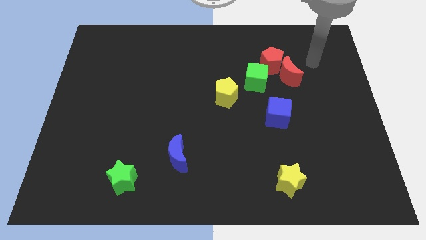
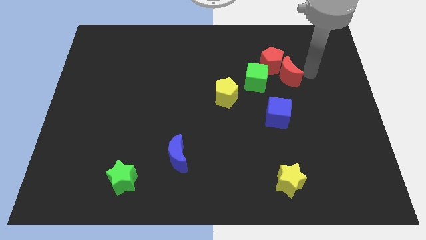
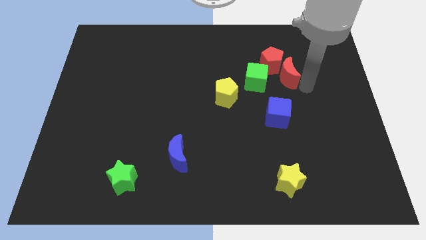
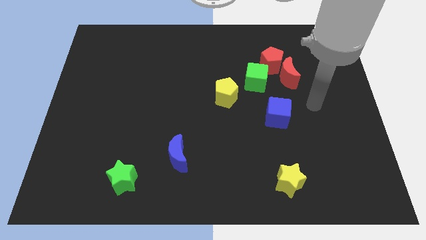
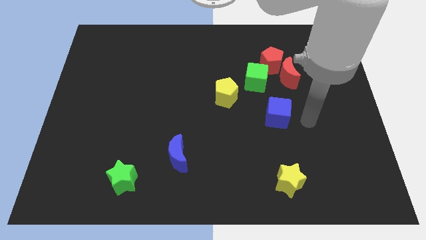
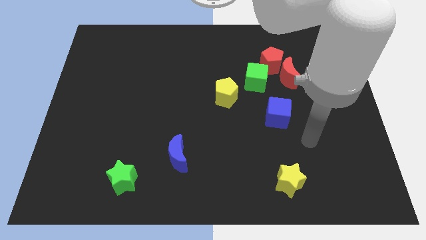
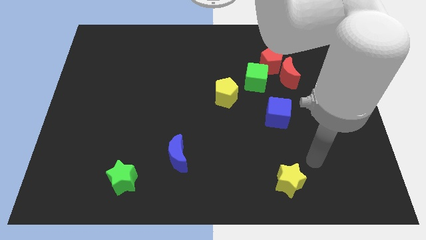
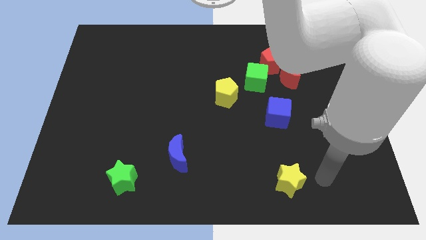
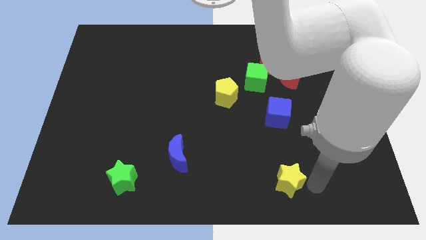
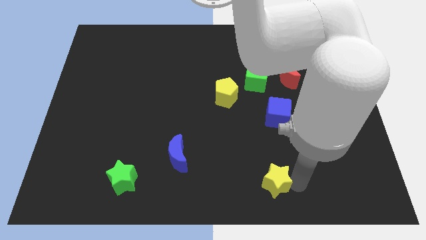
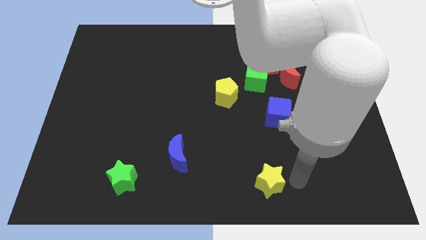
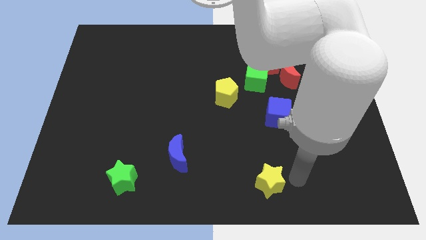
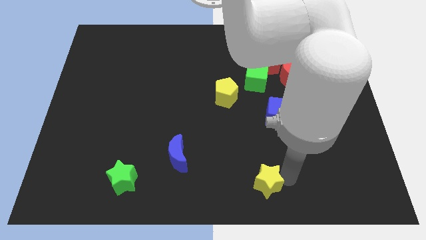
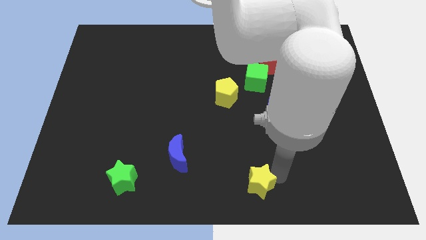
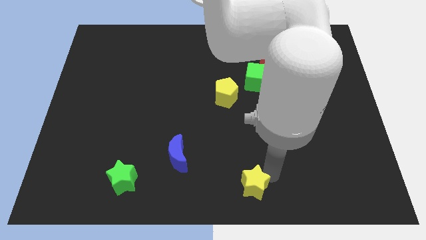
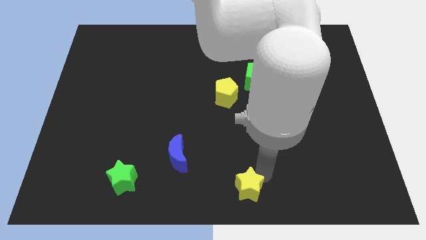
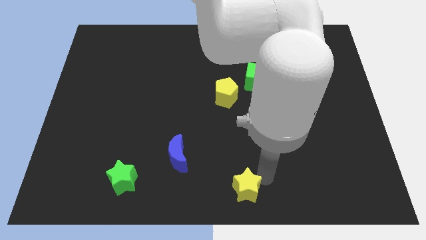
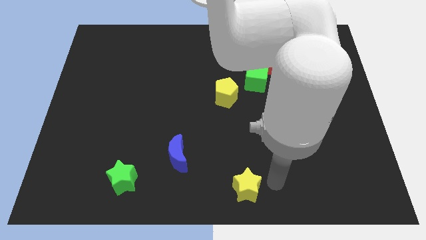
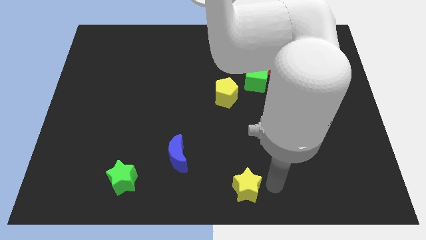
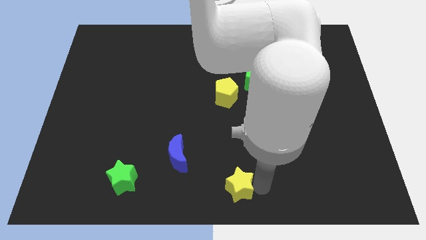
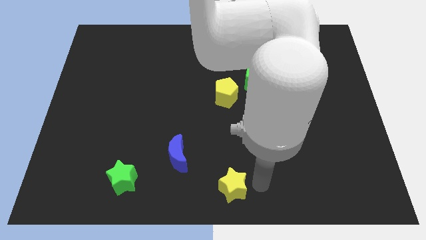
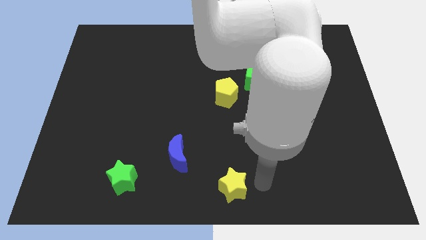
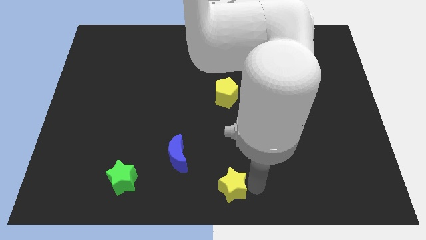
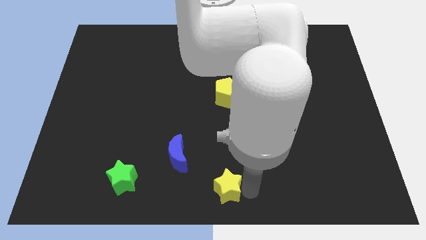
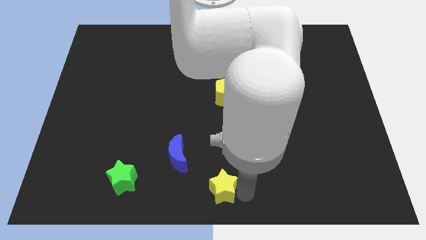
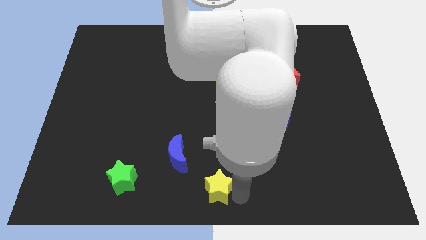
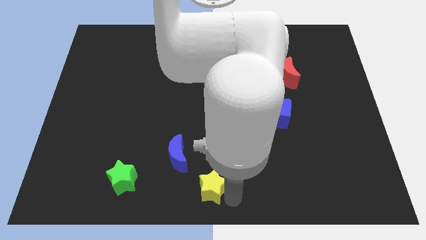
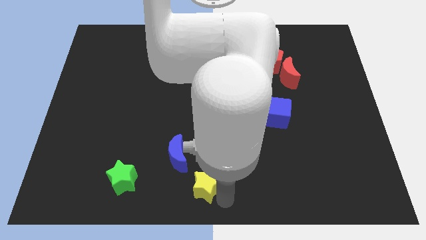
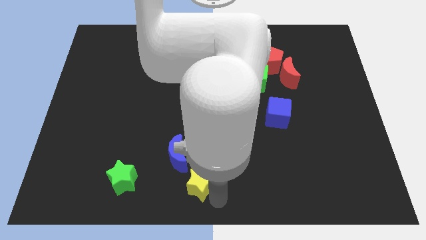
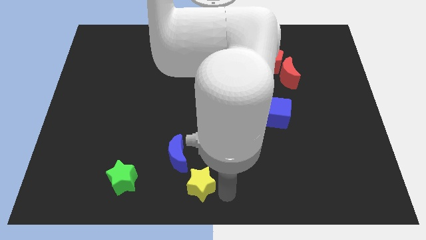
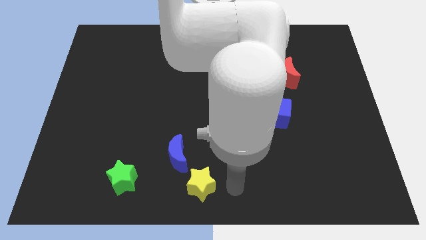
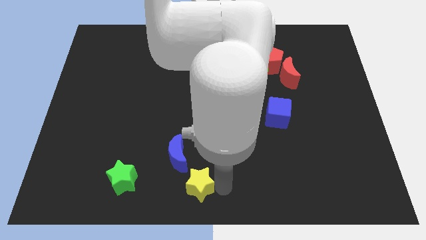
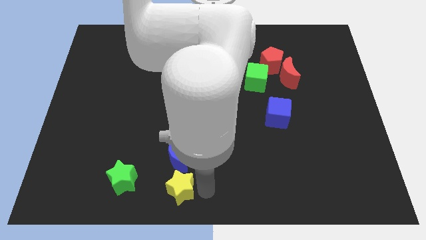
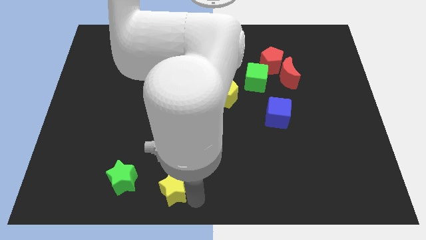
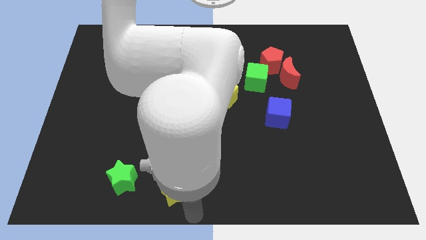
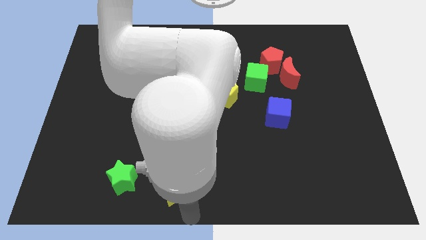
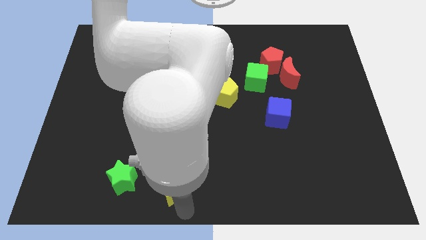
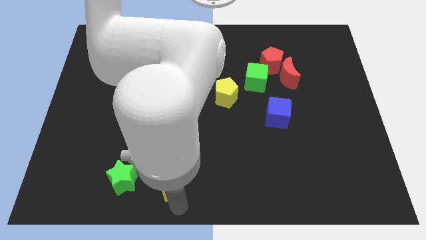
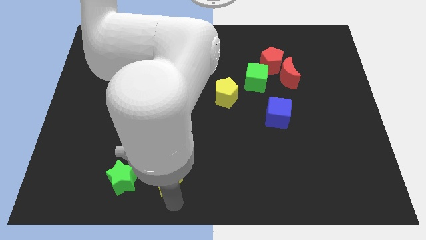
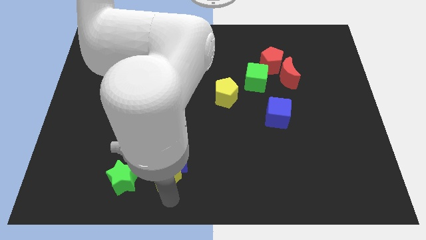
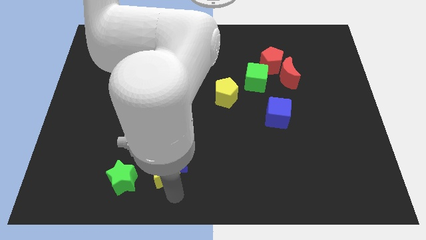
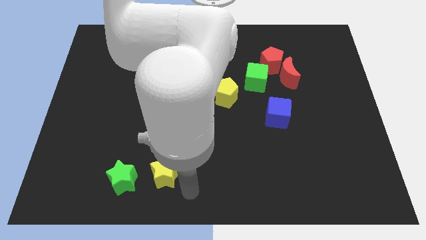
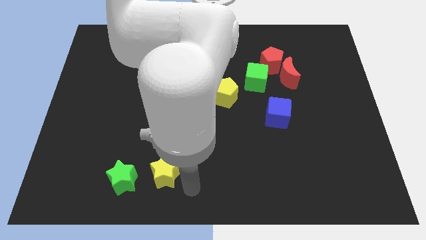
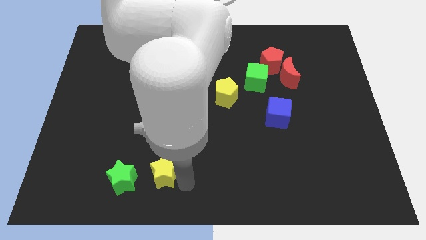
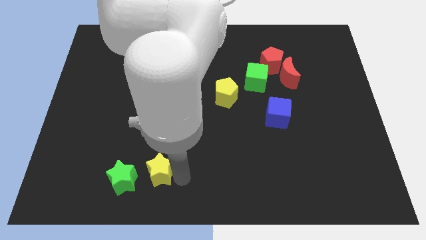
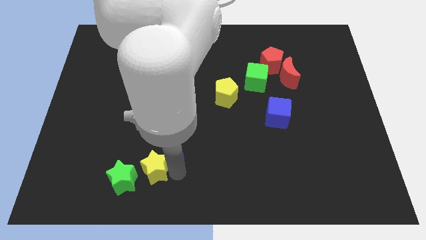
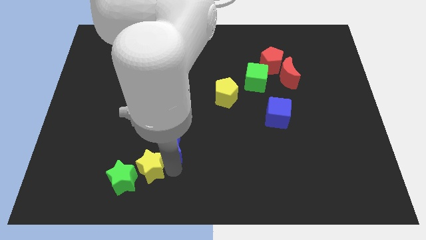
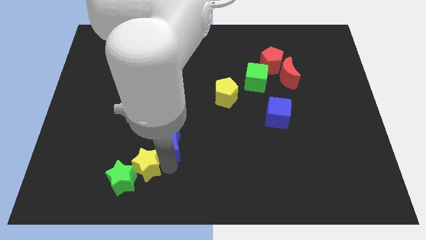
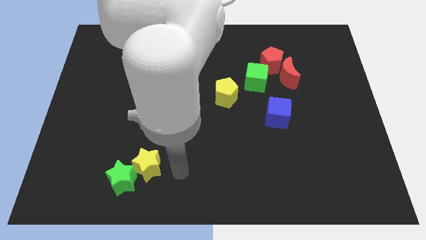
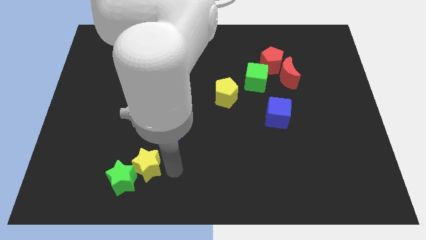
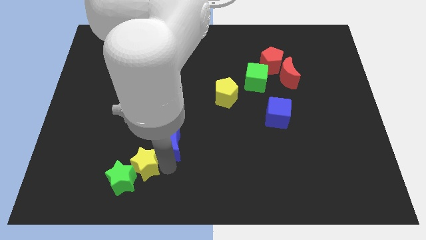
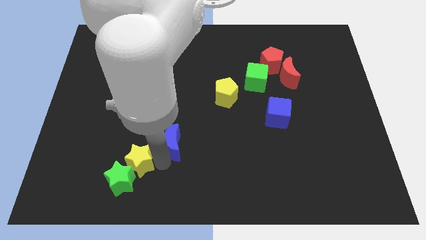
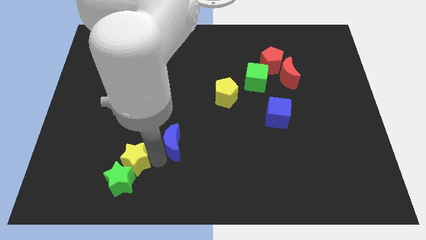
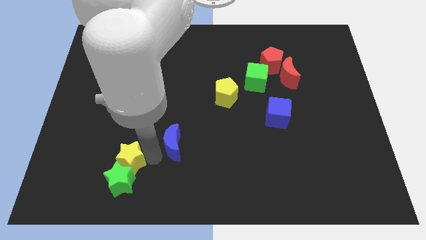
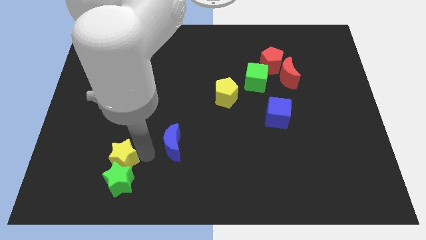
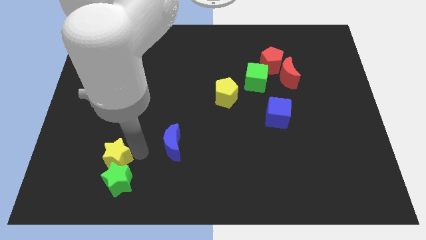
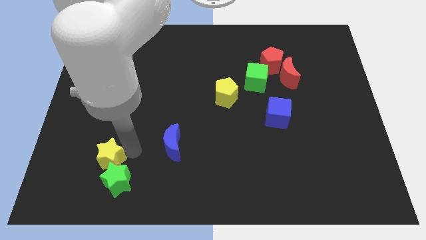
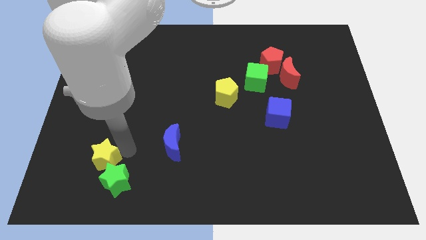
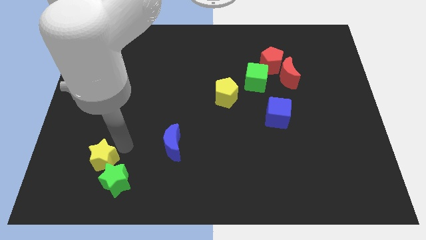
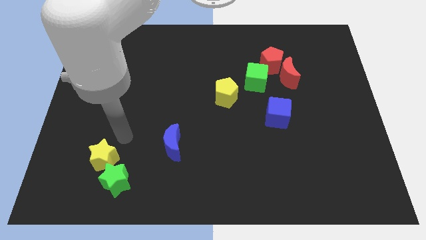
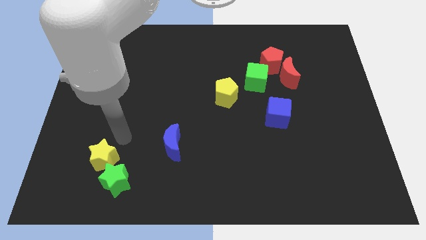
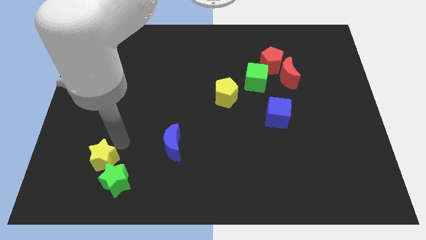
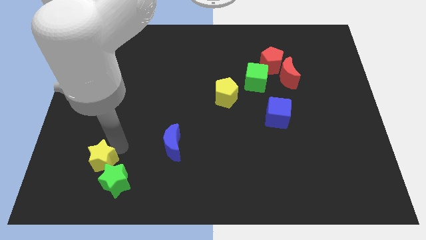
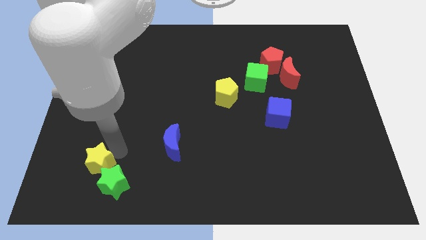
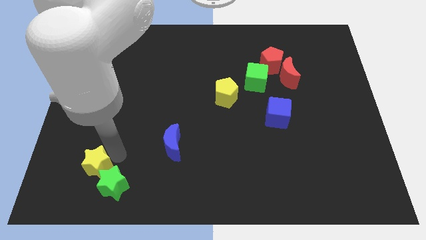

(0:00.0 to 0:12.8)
move the yellow star to the left of the green star

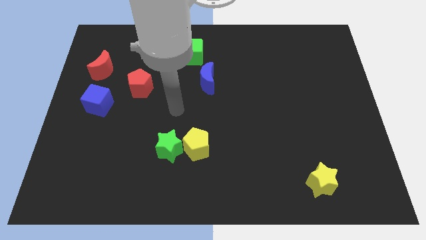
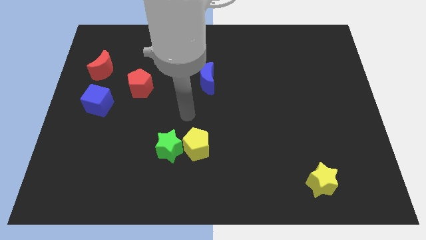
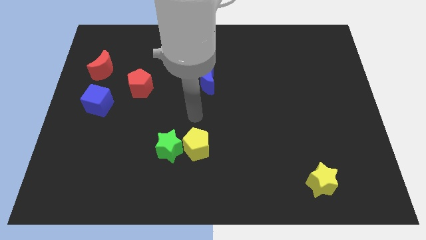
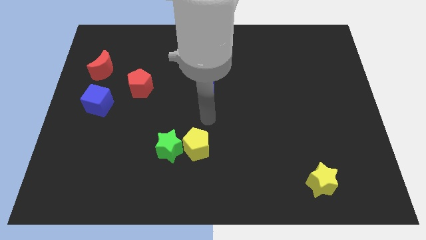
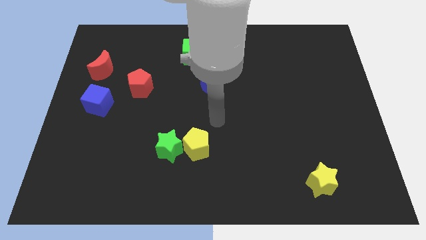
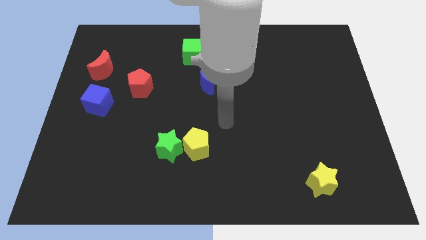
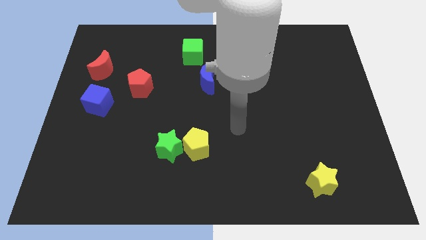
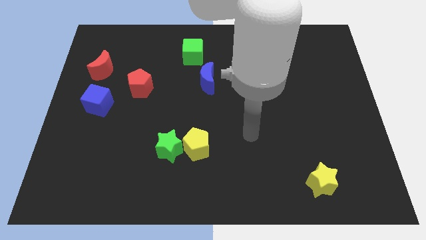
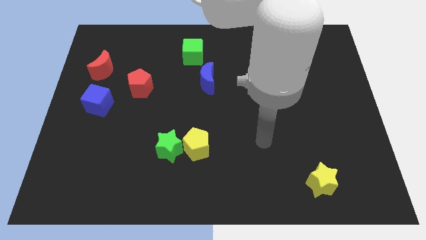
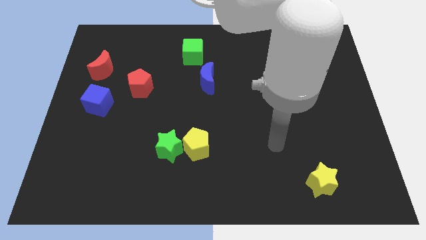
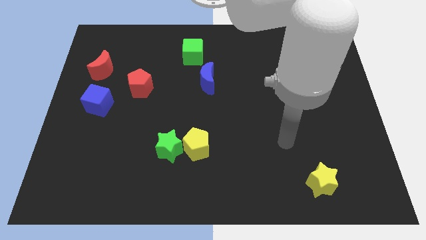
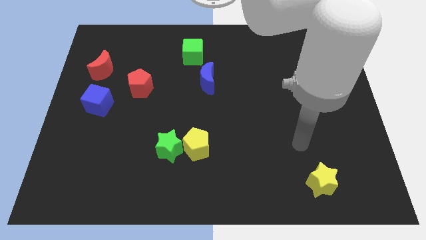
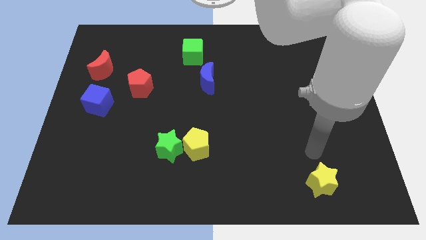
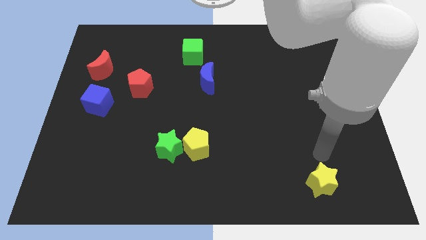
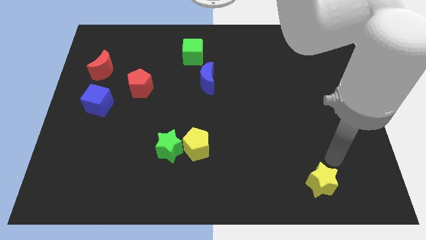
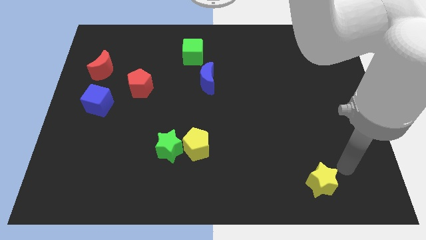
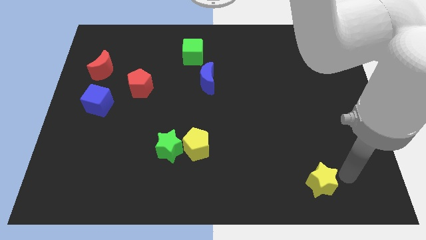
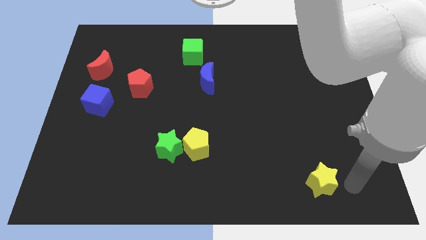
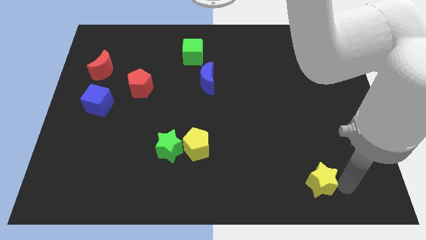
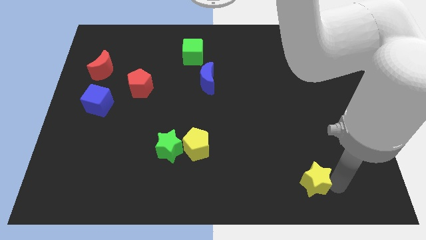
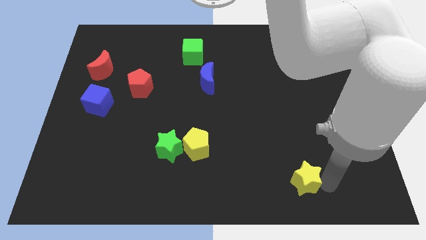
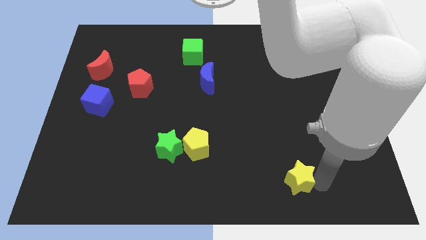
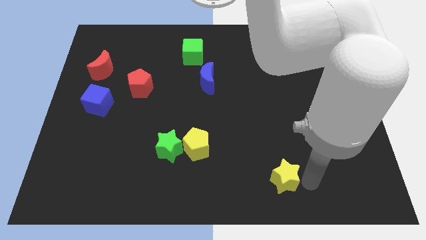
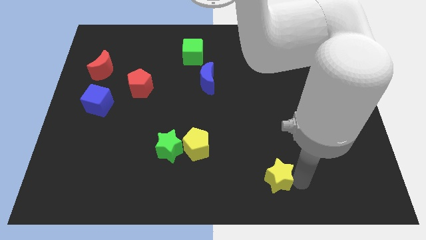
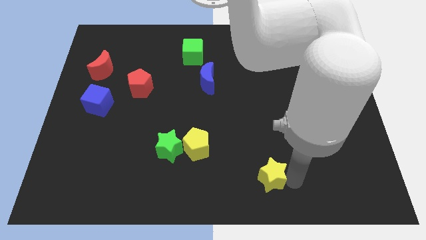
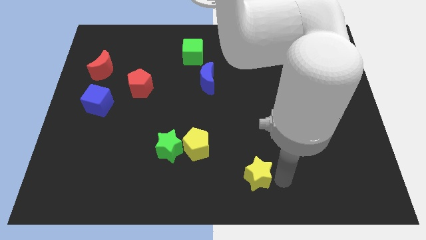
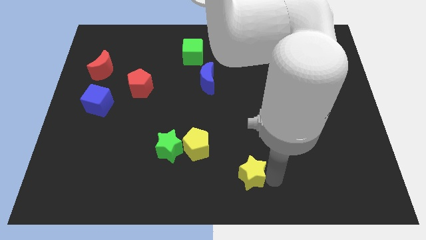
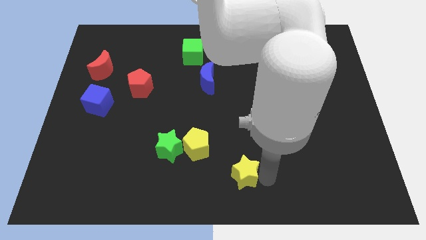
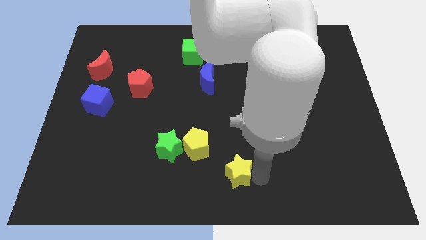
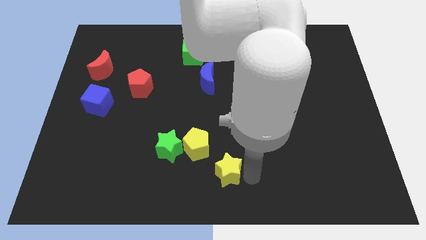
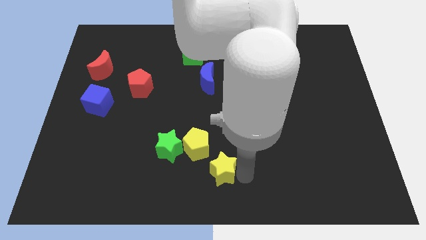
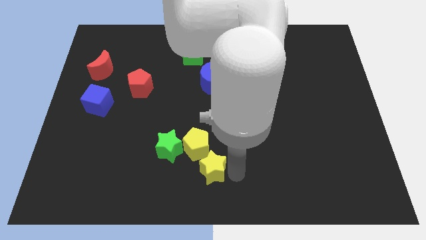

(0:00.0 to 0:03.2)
push the yellow star to the bottom right side of the green star
